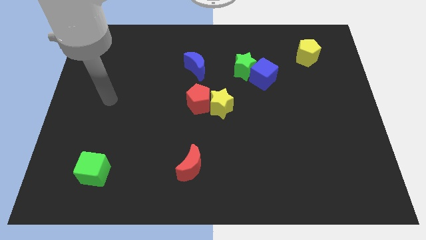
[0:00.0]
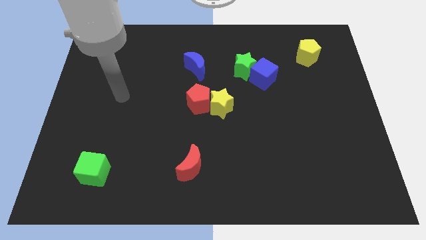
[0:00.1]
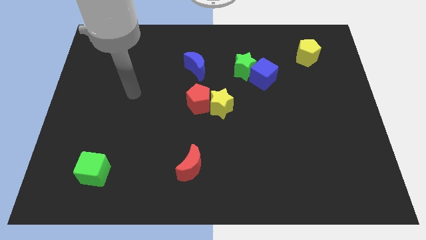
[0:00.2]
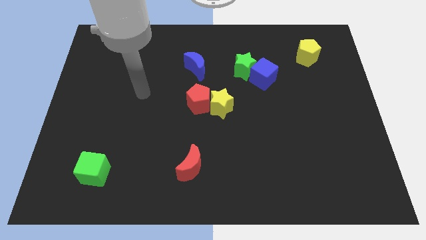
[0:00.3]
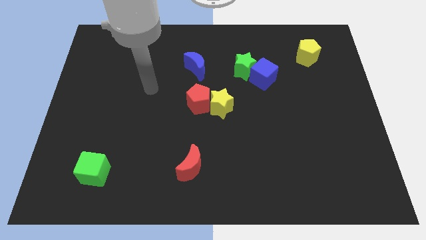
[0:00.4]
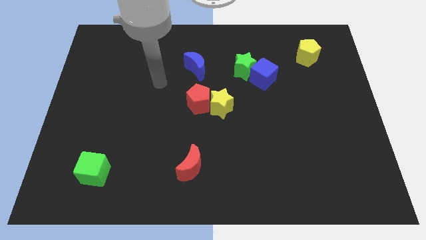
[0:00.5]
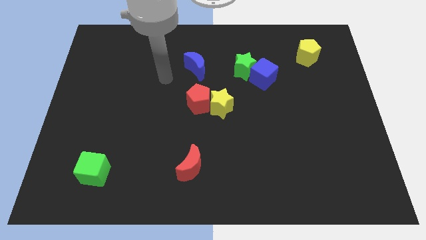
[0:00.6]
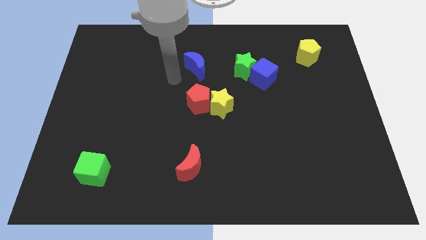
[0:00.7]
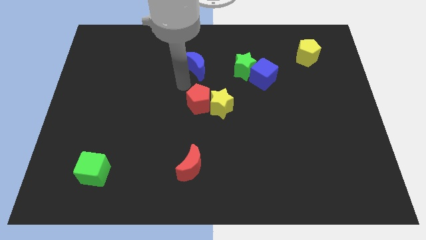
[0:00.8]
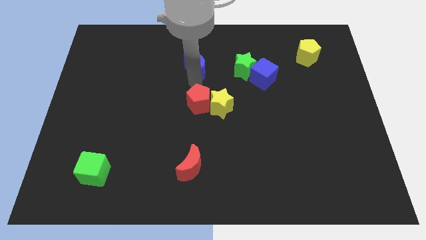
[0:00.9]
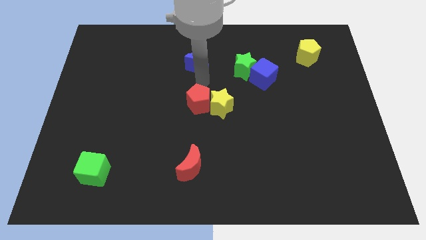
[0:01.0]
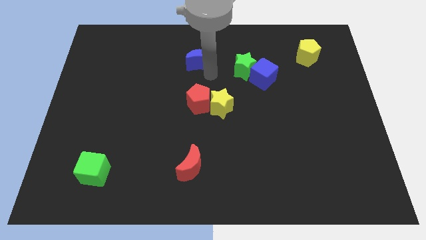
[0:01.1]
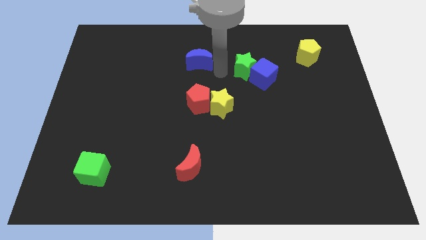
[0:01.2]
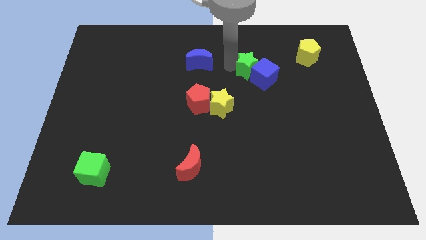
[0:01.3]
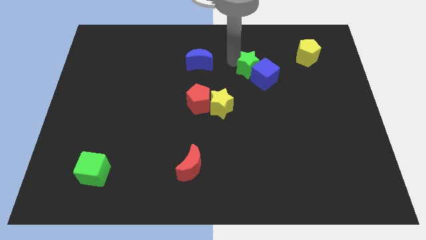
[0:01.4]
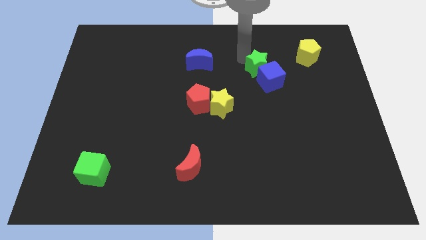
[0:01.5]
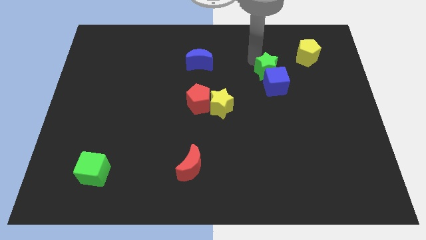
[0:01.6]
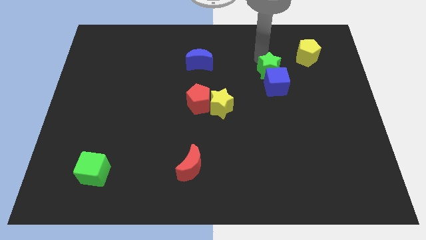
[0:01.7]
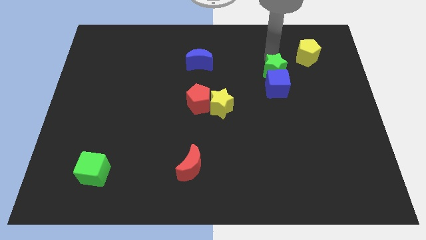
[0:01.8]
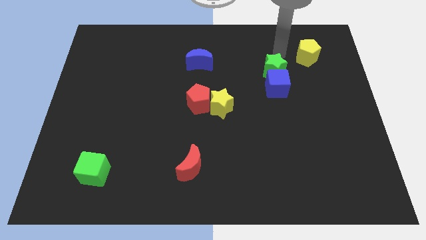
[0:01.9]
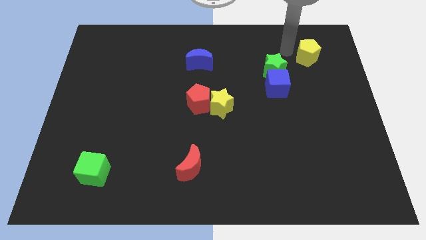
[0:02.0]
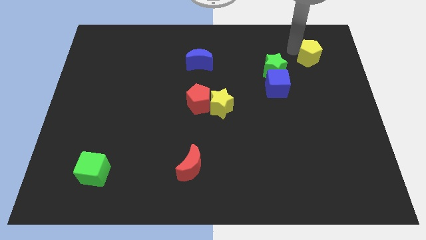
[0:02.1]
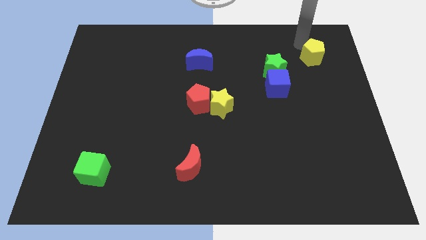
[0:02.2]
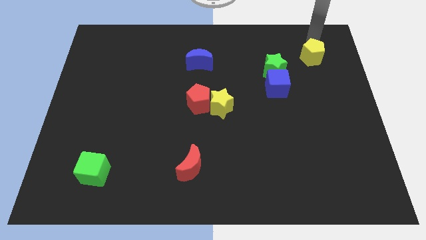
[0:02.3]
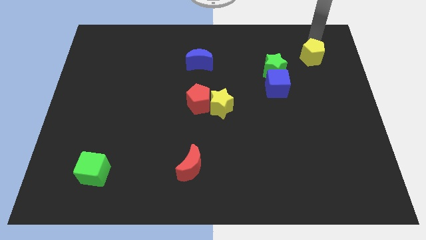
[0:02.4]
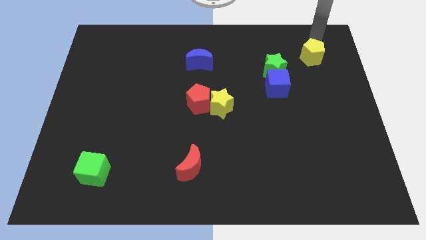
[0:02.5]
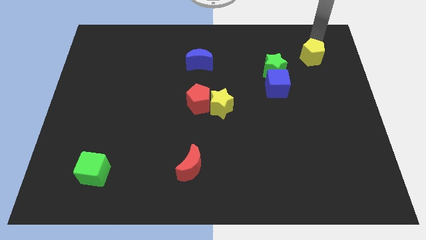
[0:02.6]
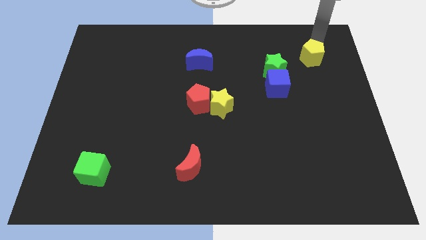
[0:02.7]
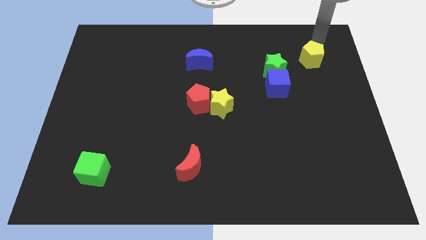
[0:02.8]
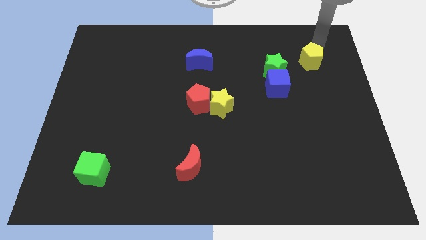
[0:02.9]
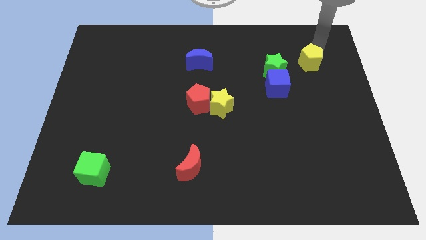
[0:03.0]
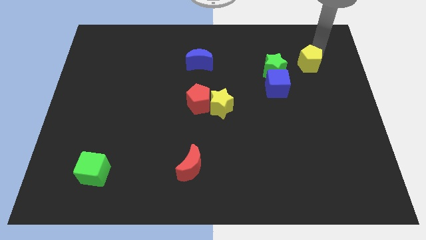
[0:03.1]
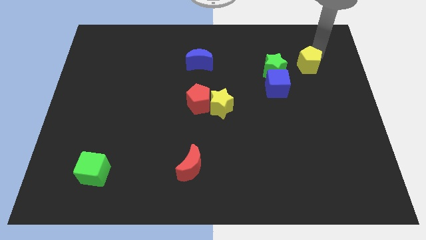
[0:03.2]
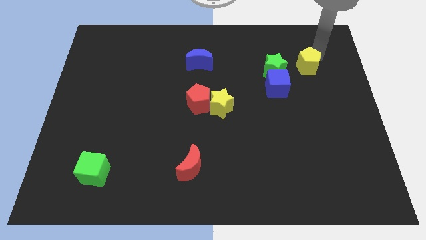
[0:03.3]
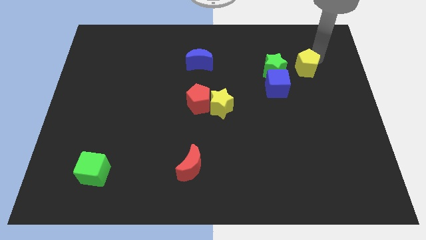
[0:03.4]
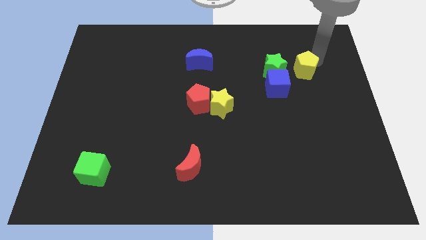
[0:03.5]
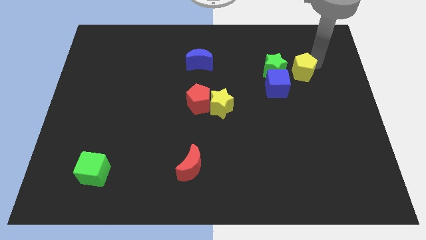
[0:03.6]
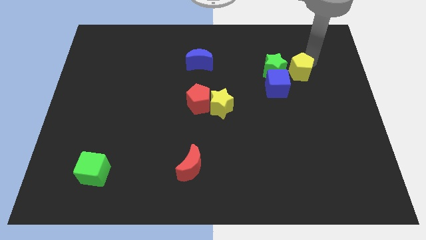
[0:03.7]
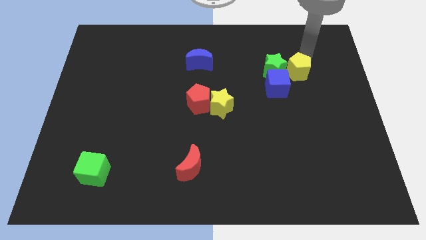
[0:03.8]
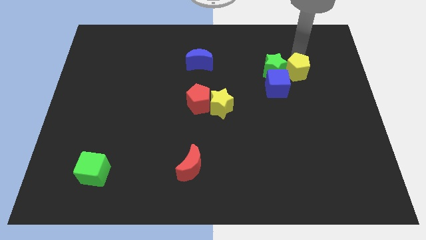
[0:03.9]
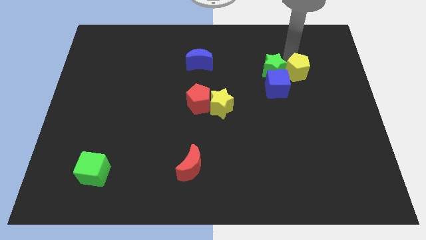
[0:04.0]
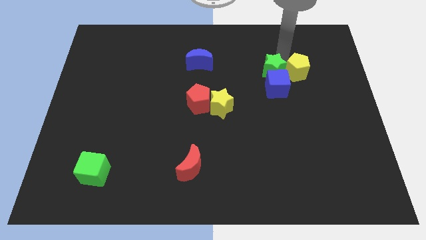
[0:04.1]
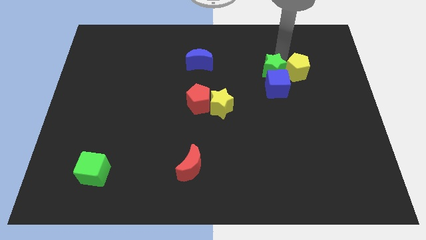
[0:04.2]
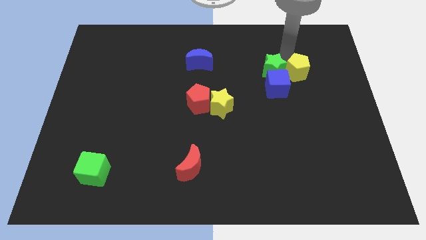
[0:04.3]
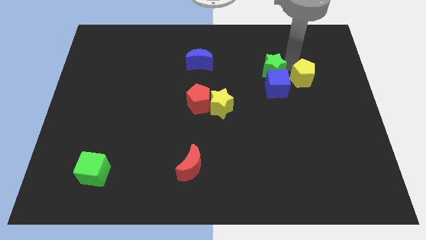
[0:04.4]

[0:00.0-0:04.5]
move the yellow pentagon downwards a bit

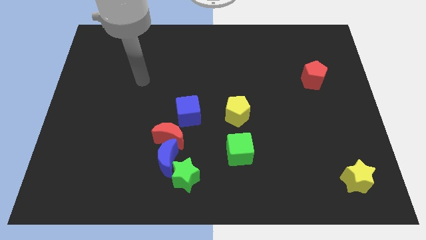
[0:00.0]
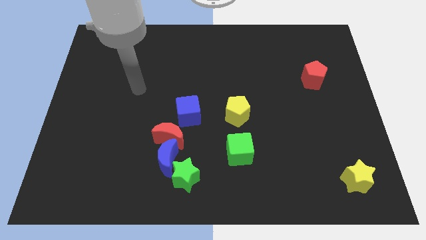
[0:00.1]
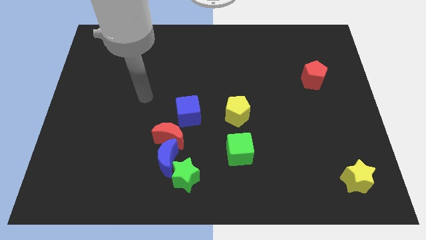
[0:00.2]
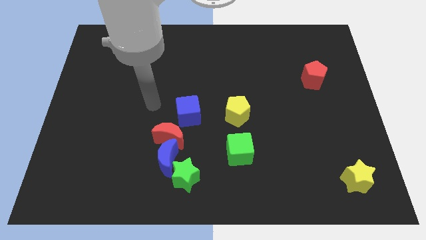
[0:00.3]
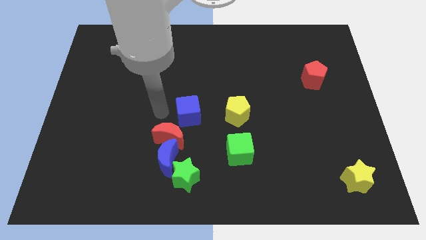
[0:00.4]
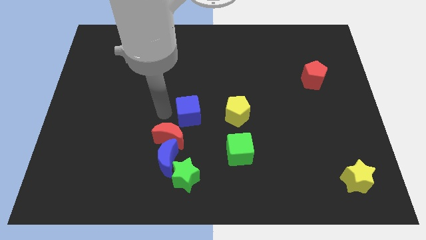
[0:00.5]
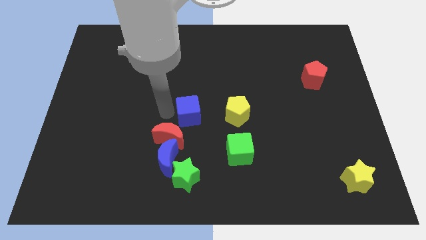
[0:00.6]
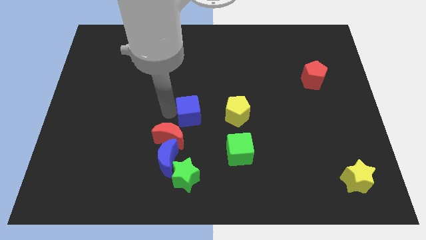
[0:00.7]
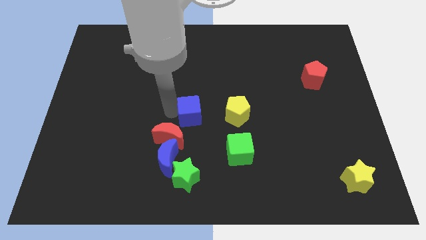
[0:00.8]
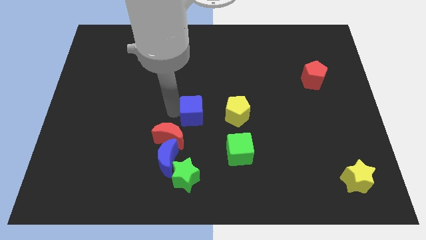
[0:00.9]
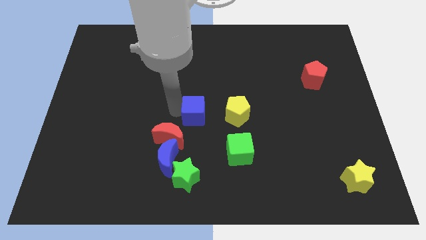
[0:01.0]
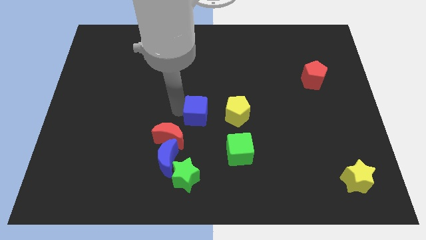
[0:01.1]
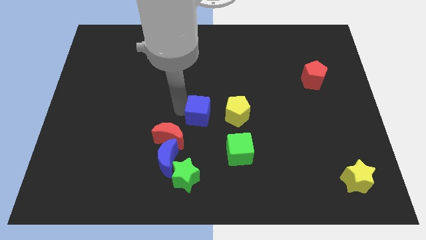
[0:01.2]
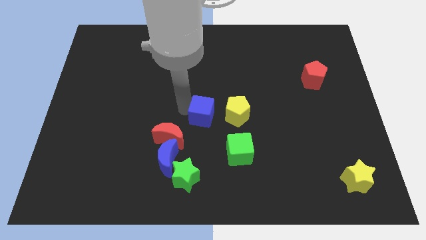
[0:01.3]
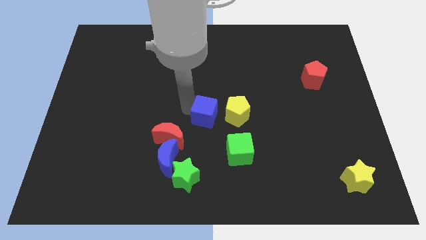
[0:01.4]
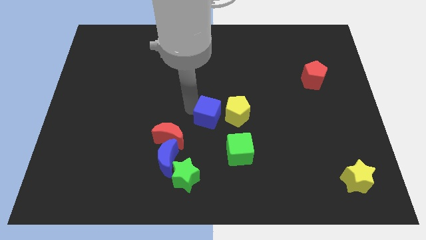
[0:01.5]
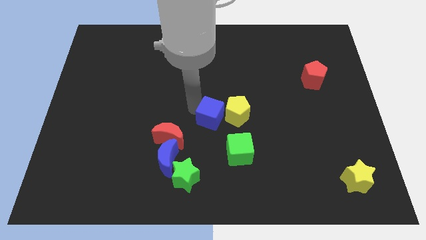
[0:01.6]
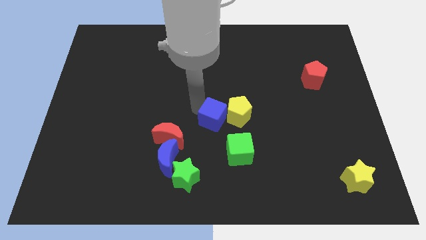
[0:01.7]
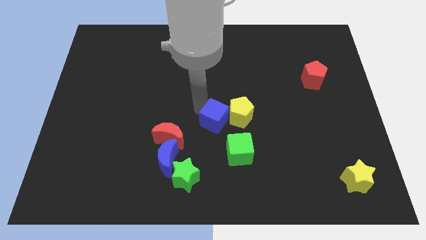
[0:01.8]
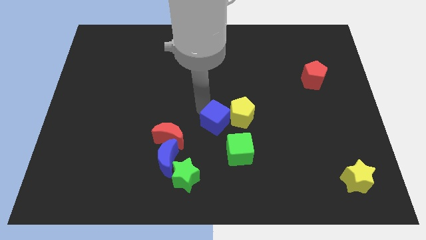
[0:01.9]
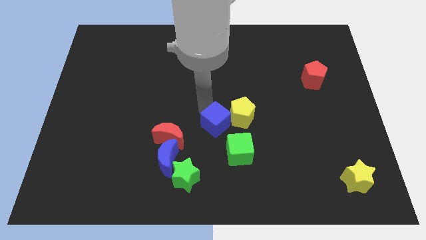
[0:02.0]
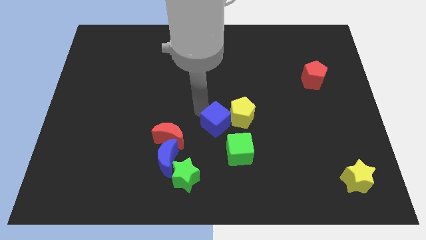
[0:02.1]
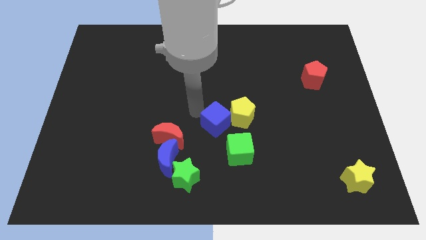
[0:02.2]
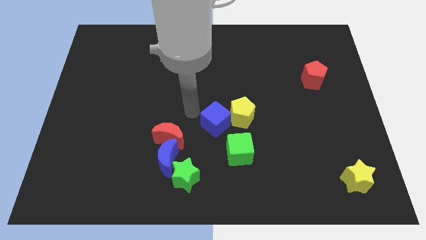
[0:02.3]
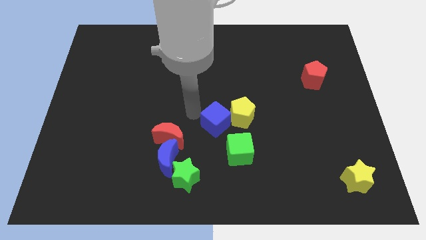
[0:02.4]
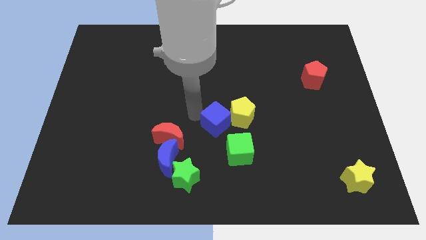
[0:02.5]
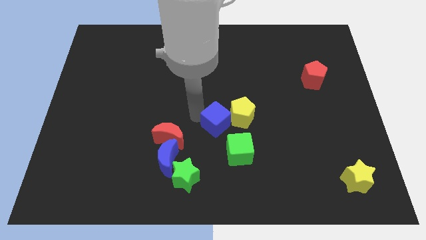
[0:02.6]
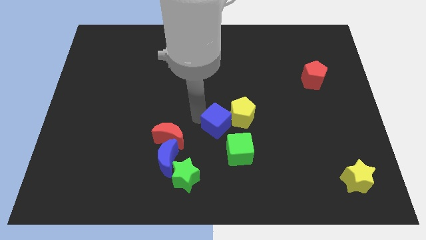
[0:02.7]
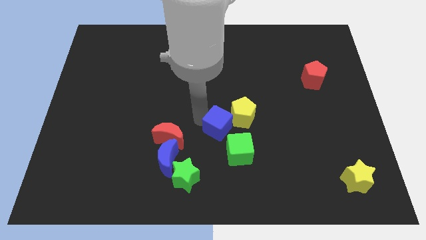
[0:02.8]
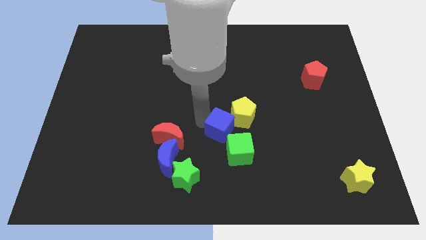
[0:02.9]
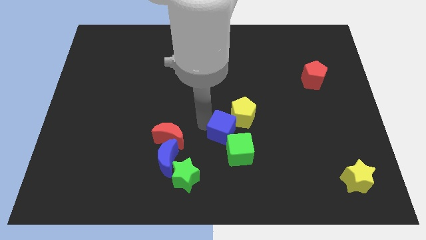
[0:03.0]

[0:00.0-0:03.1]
slightly slide the blue cube right

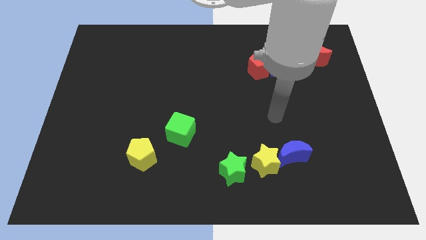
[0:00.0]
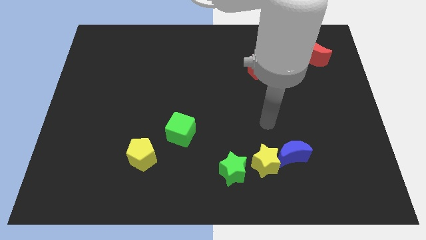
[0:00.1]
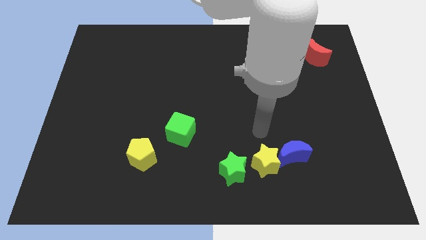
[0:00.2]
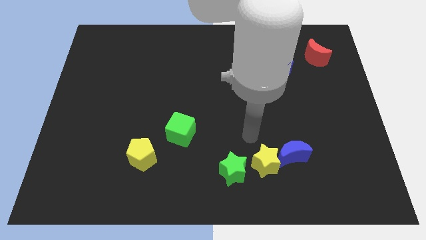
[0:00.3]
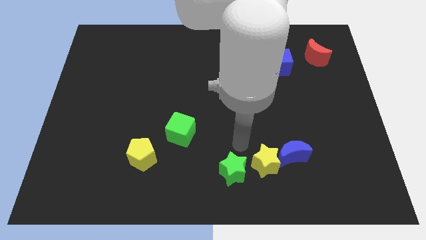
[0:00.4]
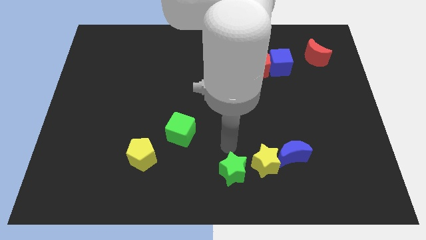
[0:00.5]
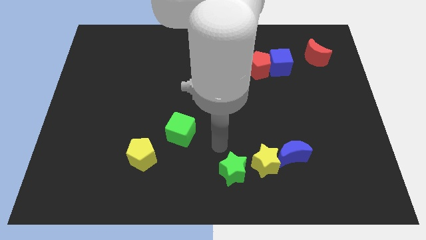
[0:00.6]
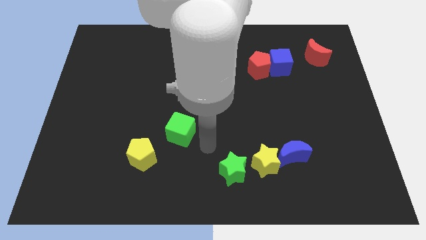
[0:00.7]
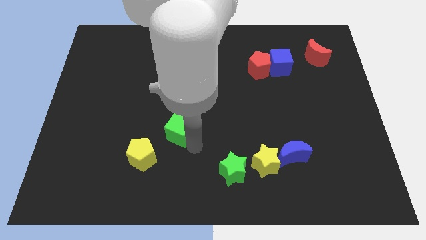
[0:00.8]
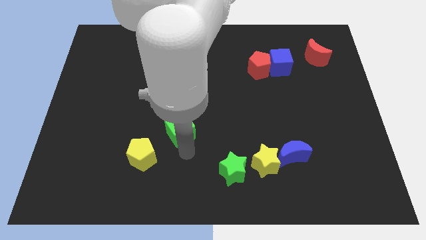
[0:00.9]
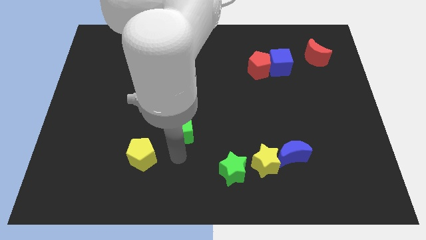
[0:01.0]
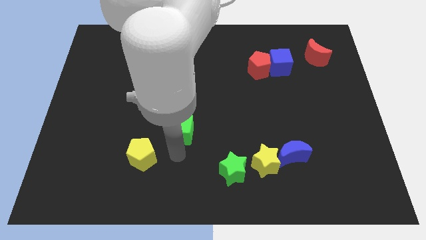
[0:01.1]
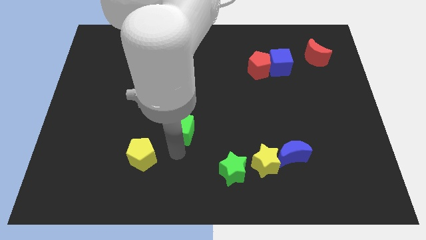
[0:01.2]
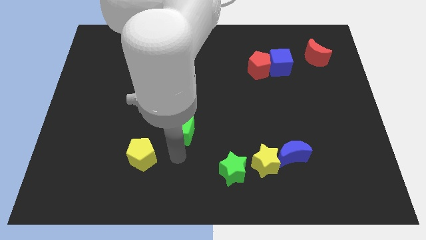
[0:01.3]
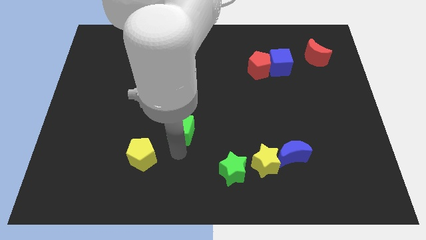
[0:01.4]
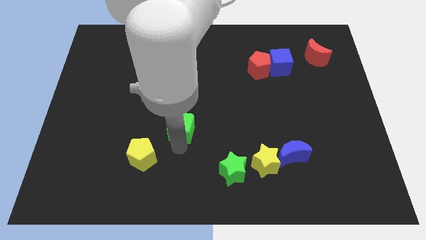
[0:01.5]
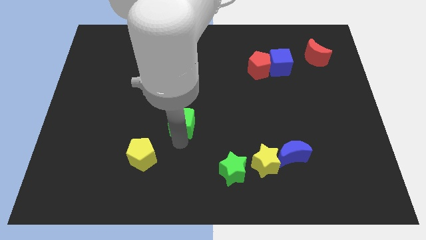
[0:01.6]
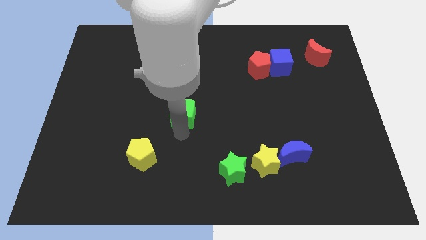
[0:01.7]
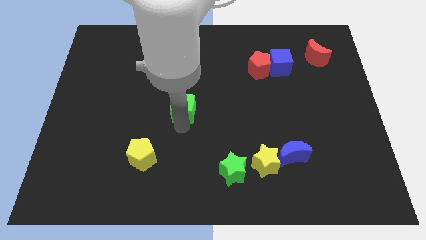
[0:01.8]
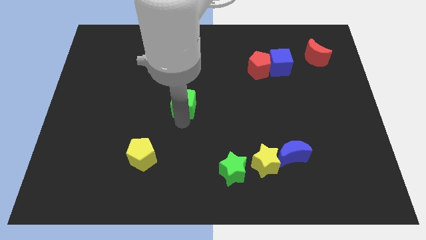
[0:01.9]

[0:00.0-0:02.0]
slightly move the green cube up
